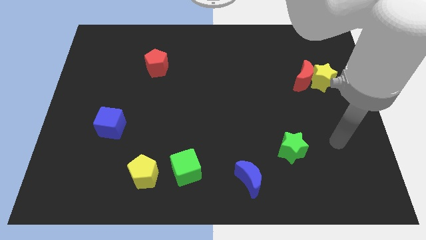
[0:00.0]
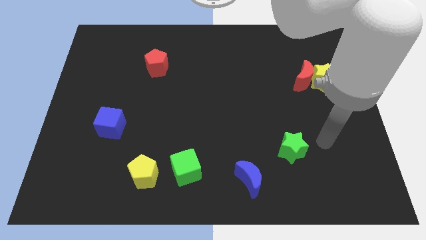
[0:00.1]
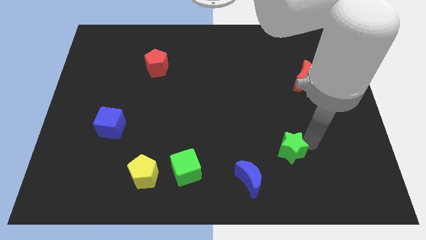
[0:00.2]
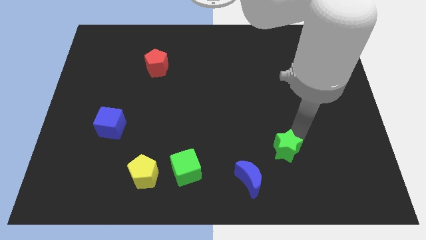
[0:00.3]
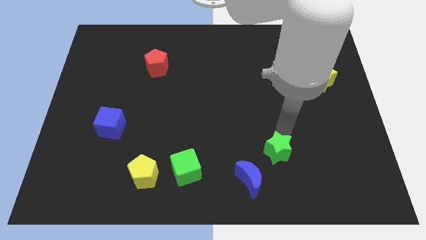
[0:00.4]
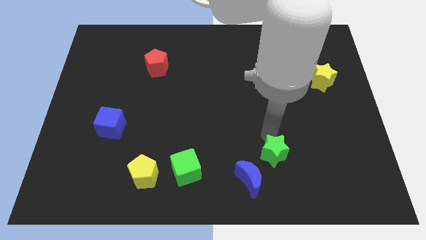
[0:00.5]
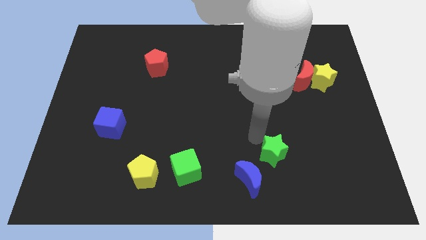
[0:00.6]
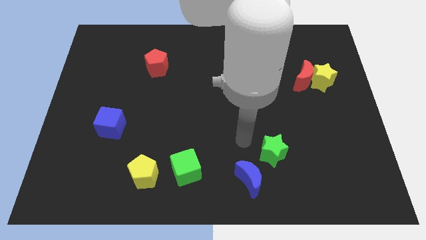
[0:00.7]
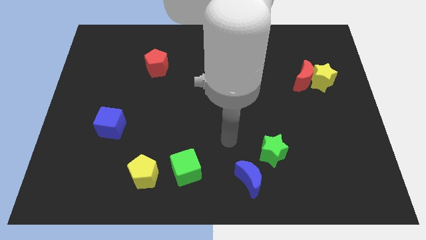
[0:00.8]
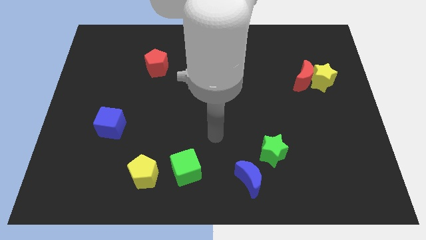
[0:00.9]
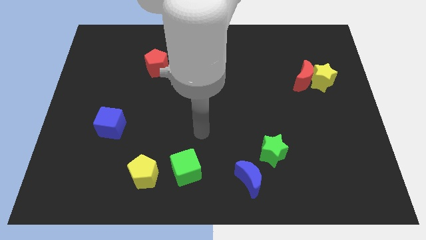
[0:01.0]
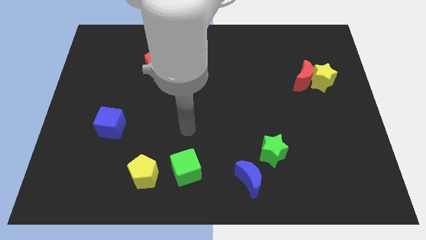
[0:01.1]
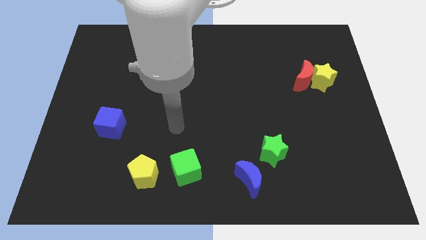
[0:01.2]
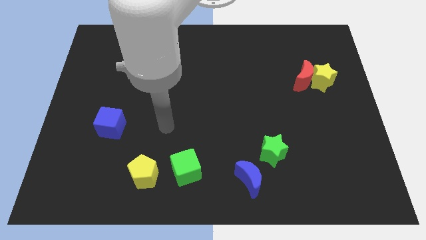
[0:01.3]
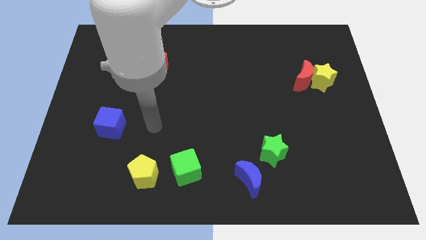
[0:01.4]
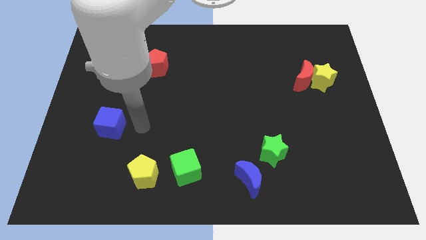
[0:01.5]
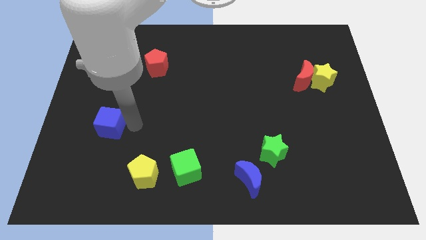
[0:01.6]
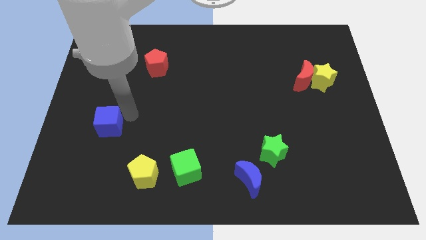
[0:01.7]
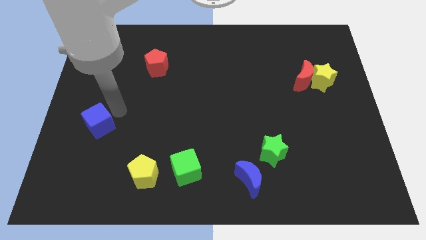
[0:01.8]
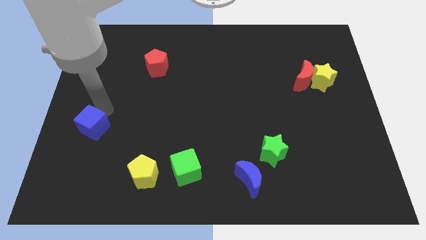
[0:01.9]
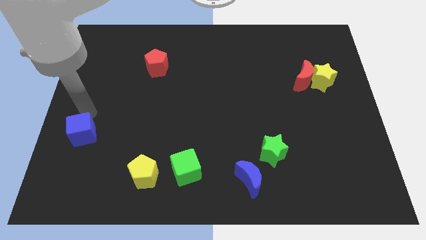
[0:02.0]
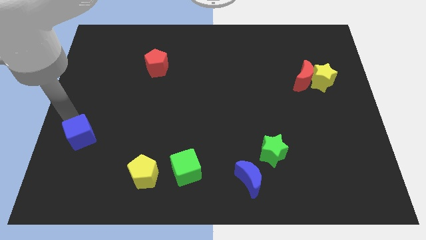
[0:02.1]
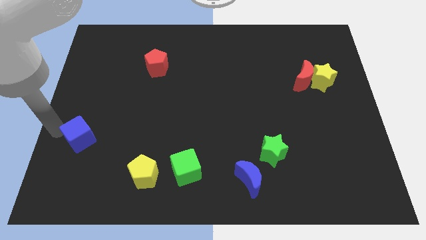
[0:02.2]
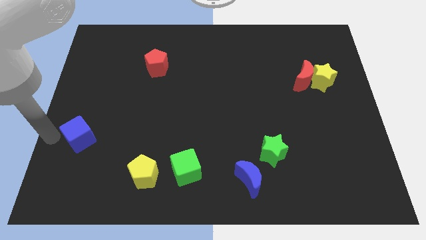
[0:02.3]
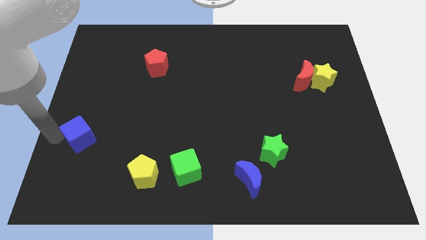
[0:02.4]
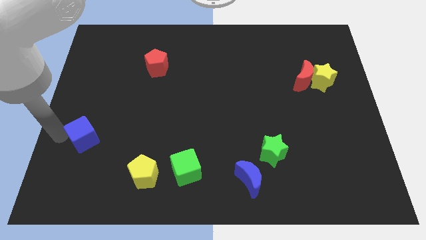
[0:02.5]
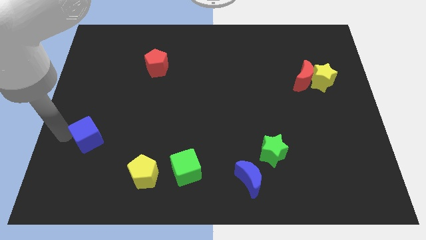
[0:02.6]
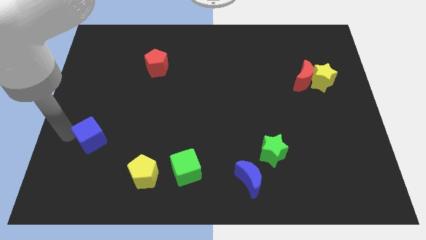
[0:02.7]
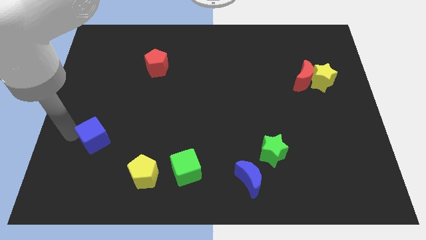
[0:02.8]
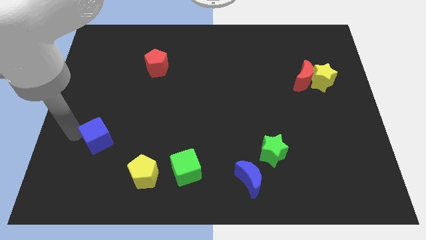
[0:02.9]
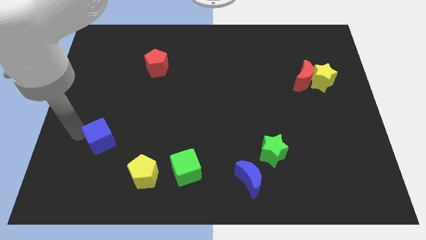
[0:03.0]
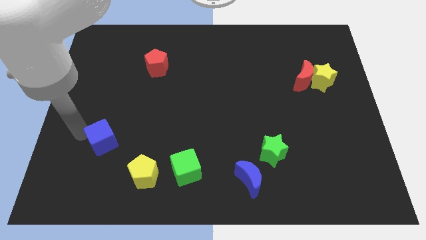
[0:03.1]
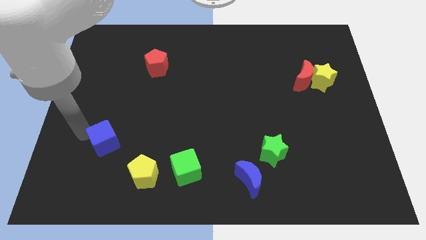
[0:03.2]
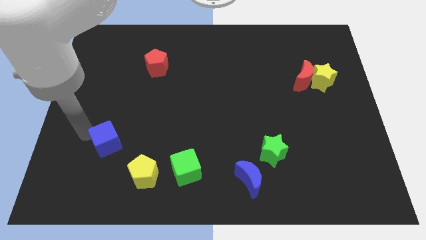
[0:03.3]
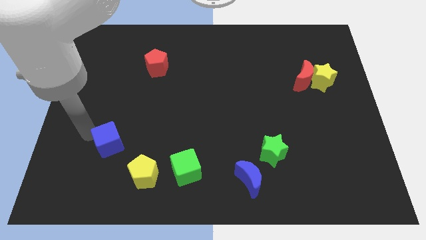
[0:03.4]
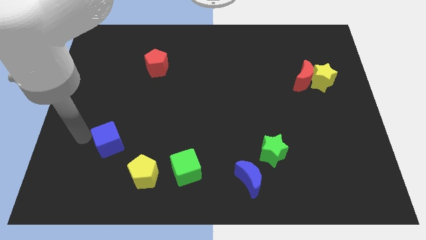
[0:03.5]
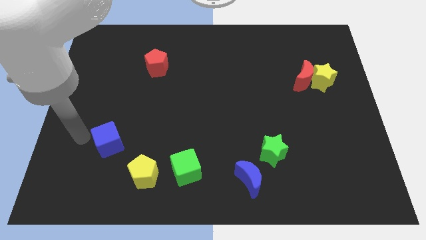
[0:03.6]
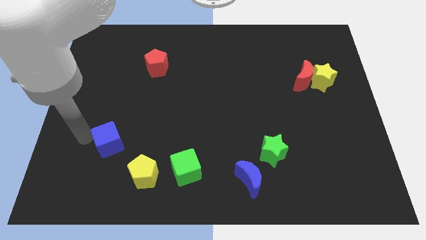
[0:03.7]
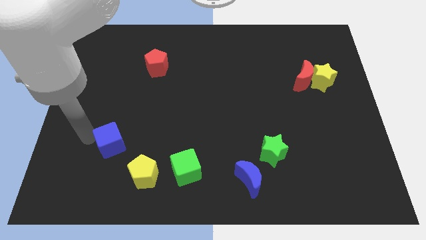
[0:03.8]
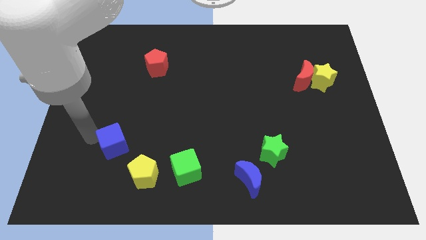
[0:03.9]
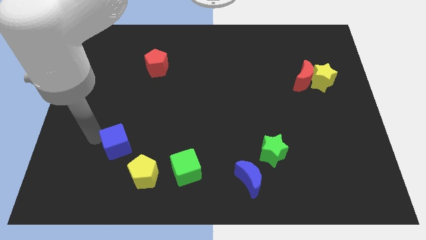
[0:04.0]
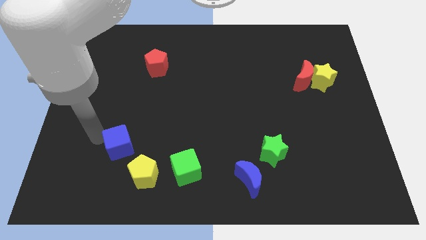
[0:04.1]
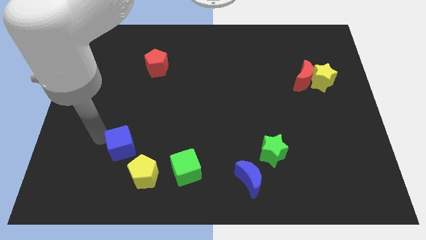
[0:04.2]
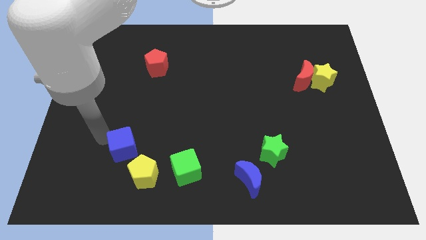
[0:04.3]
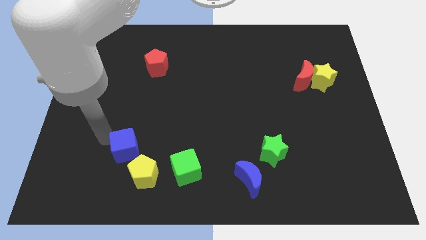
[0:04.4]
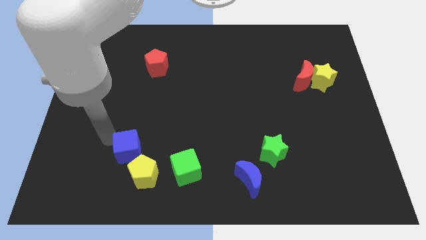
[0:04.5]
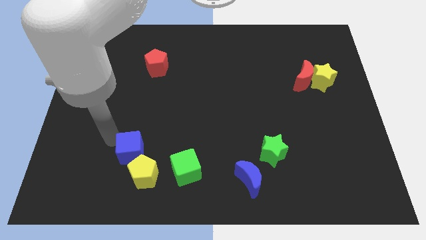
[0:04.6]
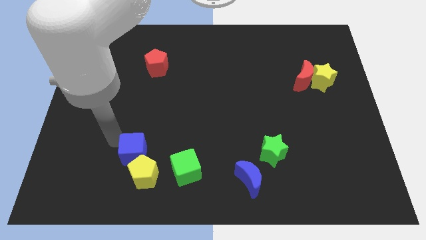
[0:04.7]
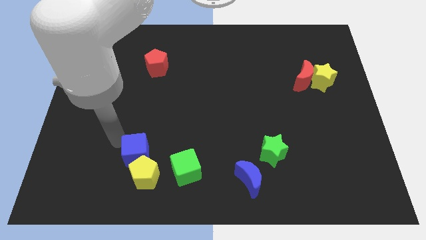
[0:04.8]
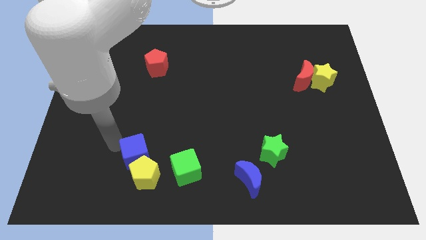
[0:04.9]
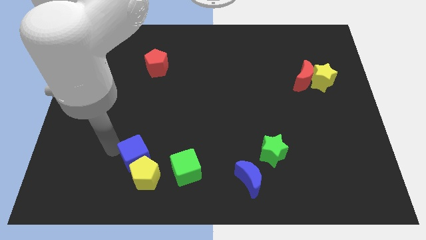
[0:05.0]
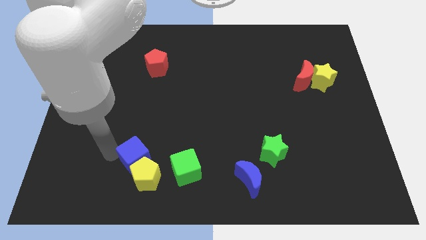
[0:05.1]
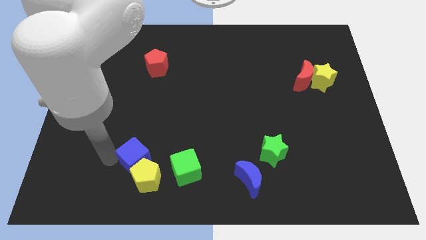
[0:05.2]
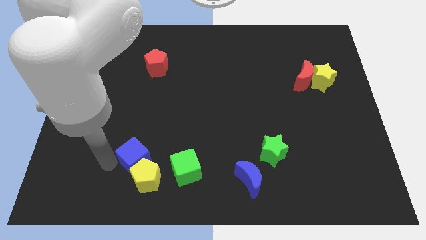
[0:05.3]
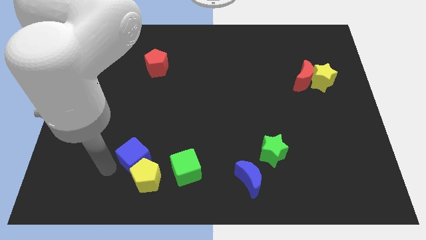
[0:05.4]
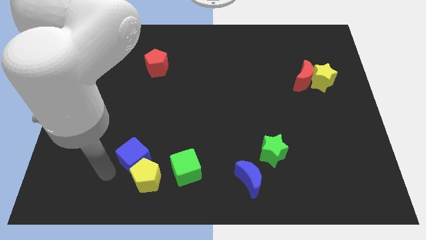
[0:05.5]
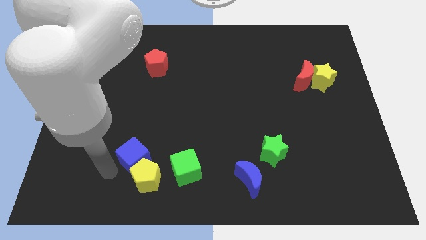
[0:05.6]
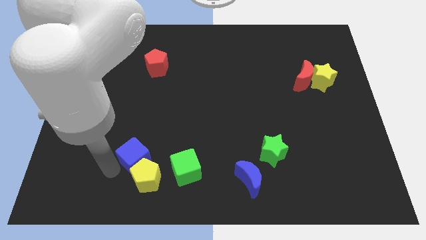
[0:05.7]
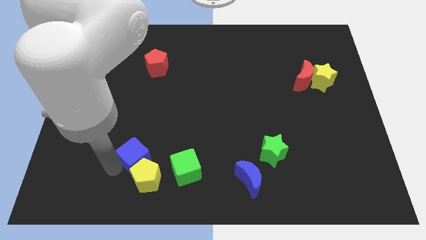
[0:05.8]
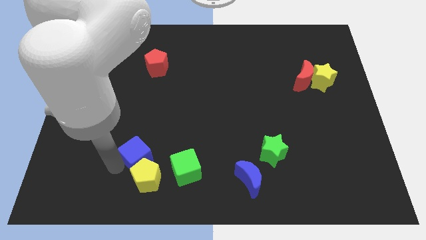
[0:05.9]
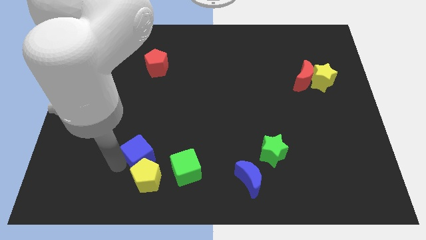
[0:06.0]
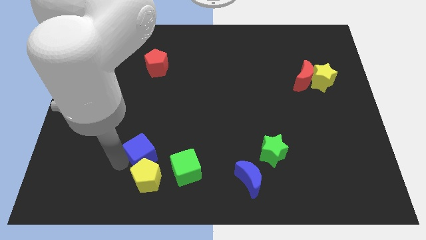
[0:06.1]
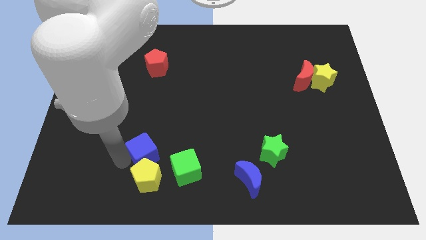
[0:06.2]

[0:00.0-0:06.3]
move the blue cube diagonally up and to the right of the yellow pentagon
